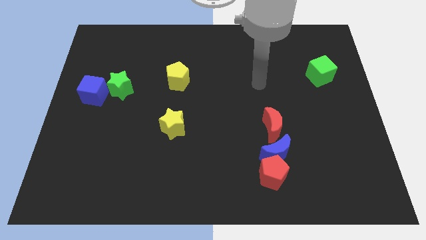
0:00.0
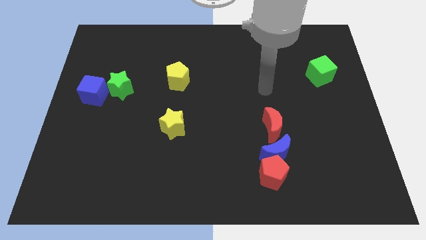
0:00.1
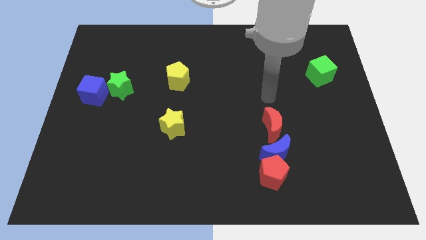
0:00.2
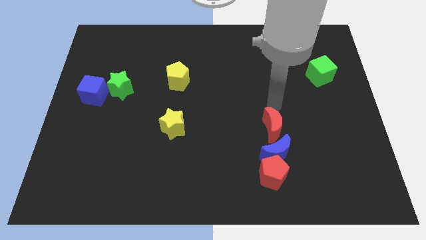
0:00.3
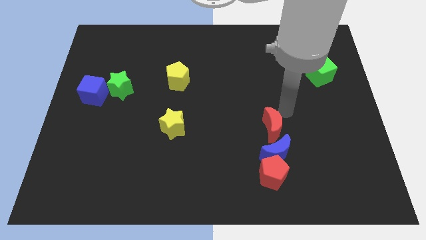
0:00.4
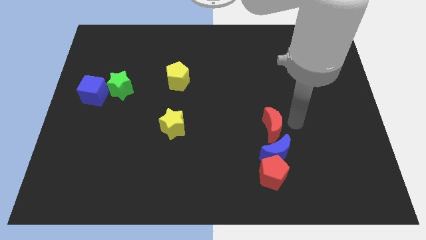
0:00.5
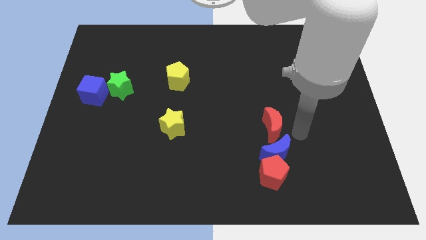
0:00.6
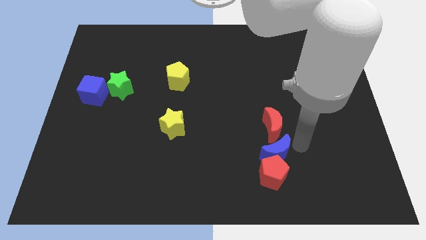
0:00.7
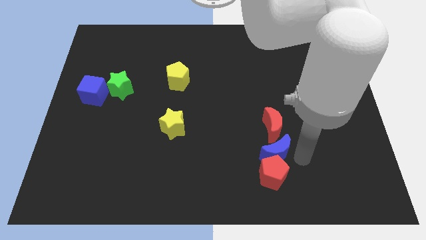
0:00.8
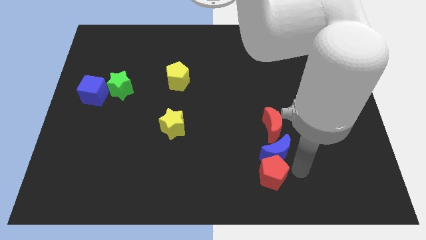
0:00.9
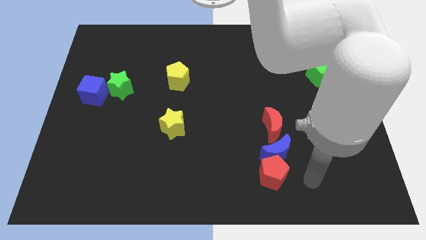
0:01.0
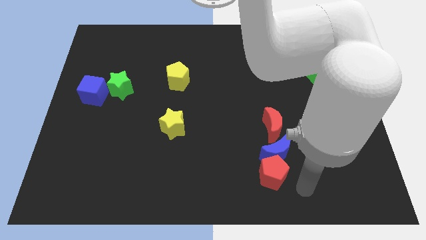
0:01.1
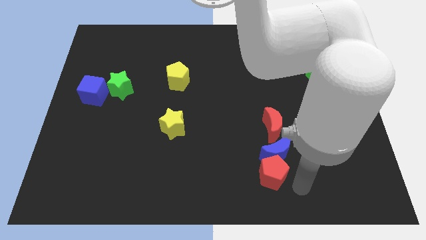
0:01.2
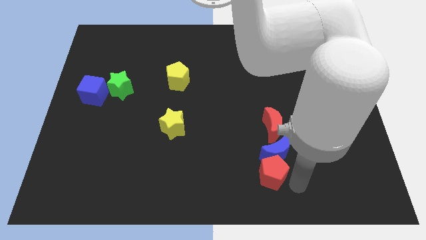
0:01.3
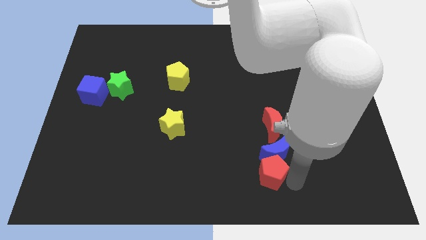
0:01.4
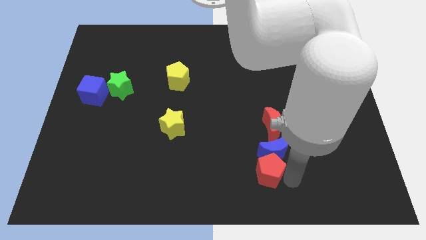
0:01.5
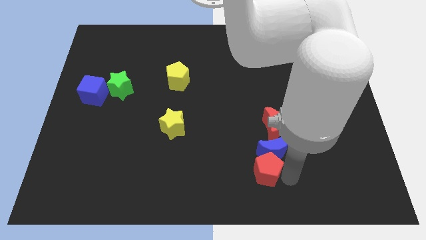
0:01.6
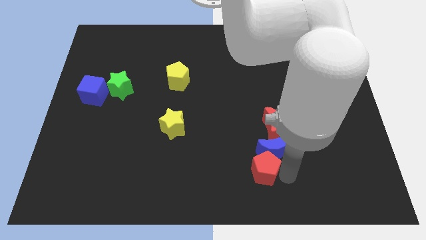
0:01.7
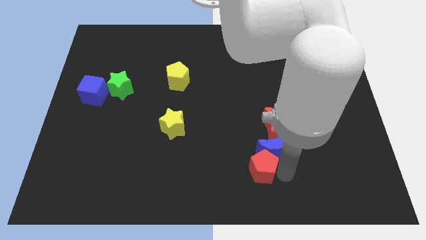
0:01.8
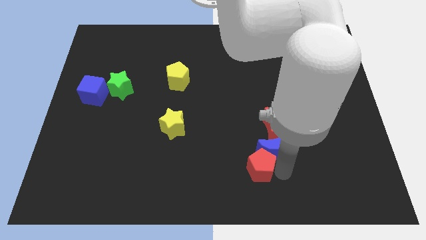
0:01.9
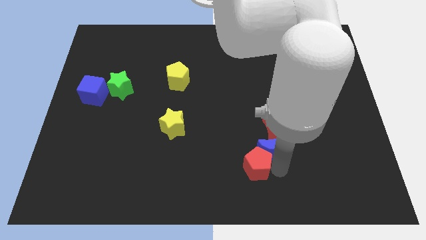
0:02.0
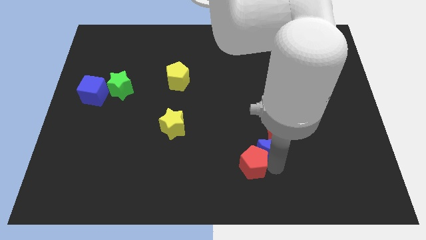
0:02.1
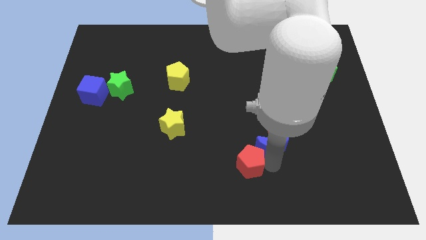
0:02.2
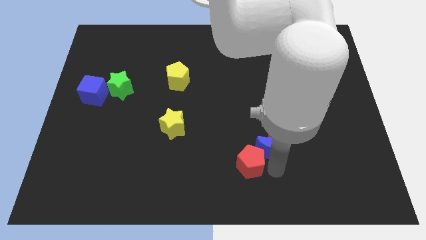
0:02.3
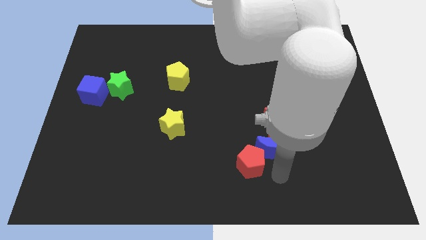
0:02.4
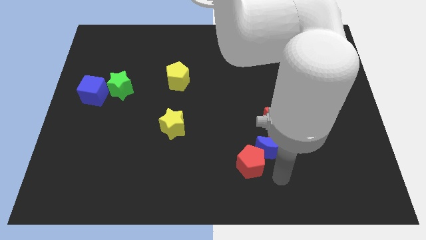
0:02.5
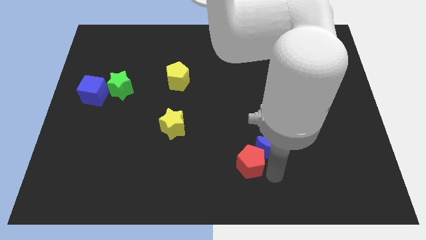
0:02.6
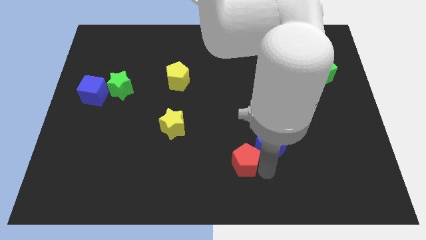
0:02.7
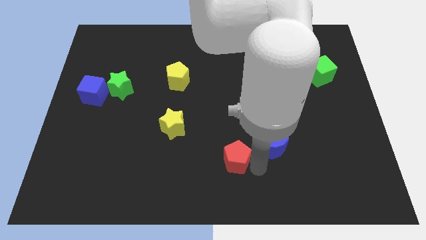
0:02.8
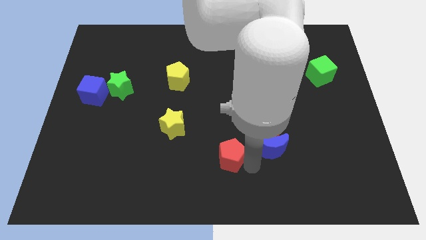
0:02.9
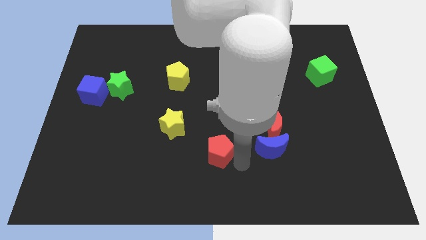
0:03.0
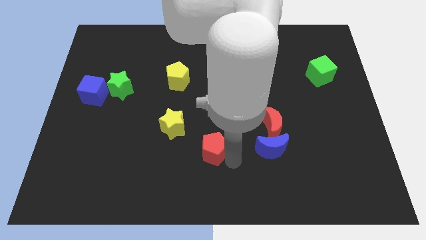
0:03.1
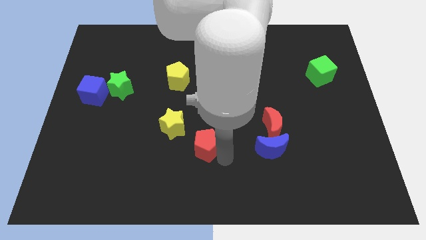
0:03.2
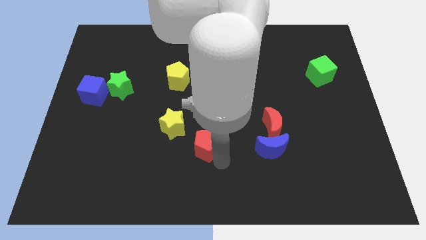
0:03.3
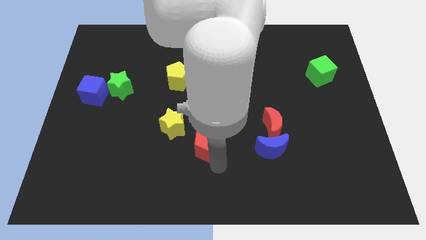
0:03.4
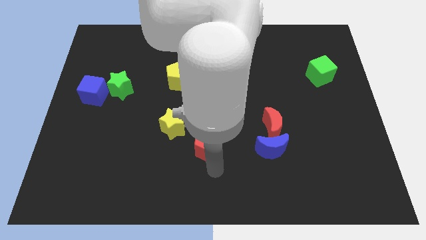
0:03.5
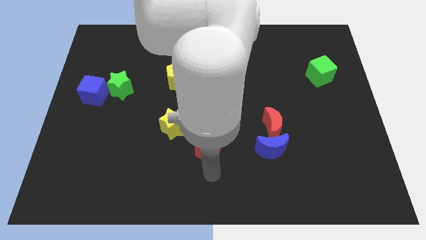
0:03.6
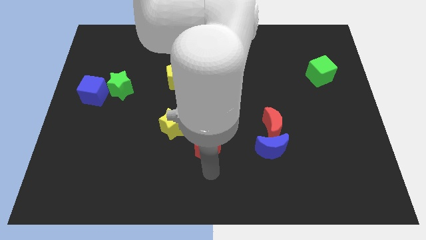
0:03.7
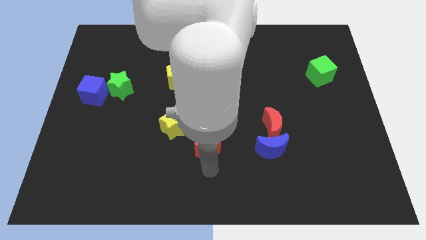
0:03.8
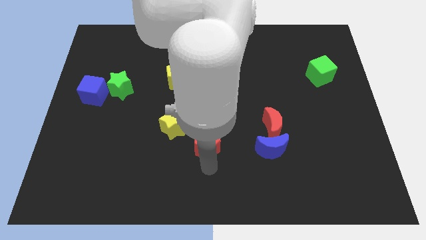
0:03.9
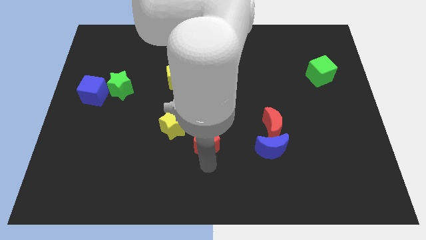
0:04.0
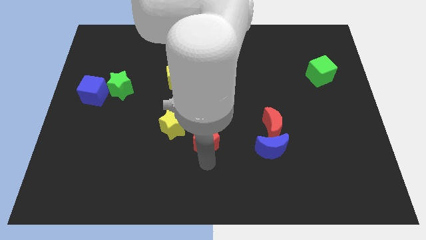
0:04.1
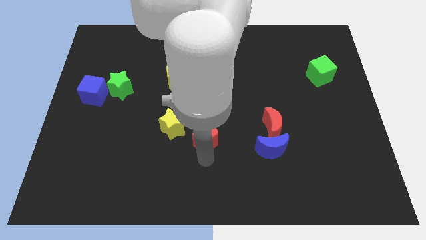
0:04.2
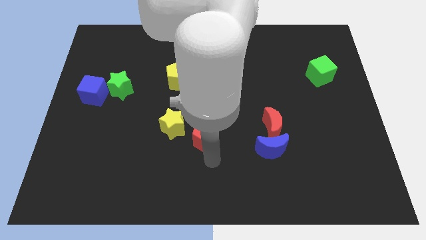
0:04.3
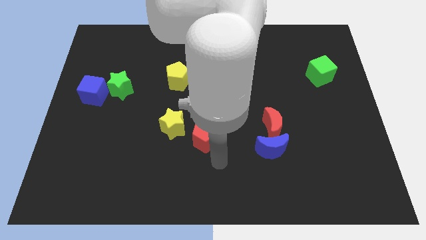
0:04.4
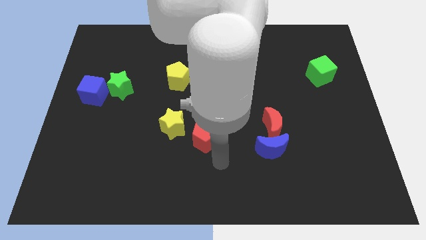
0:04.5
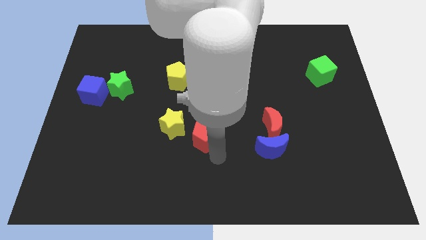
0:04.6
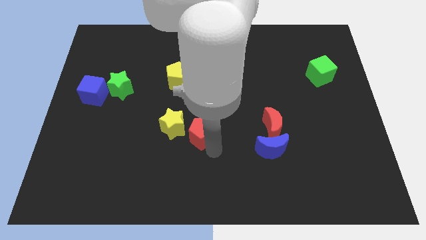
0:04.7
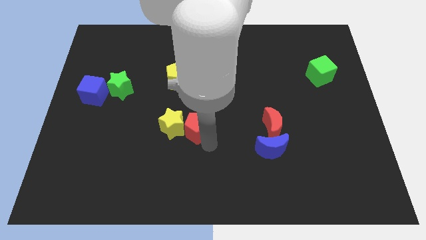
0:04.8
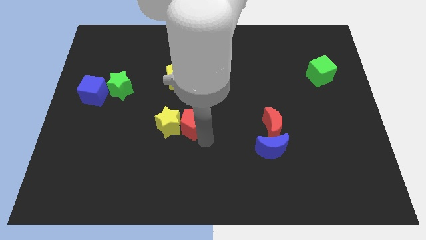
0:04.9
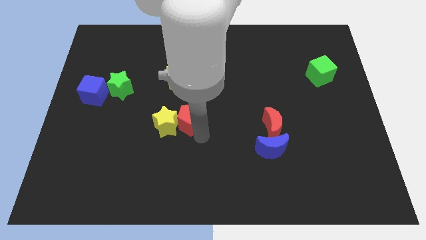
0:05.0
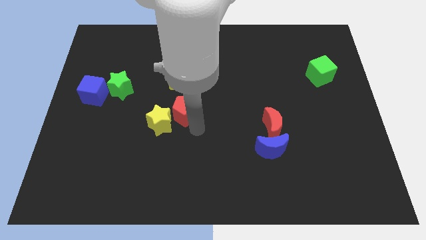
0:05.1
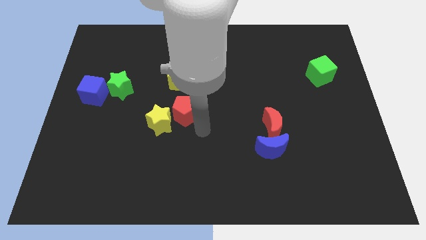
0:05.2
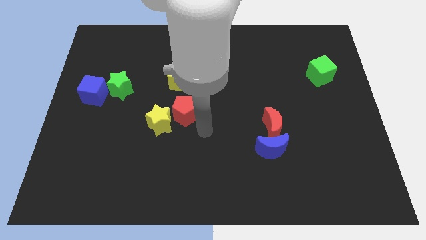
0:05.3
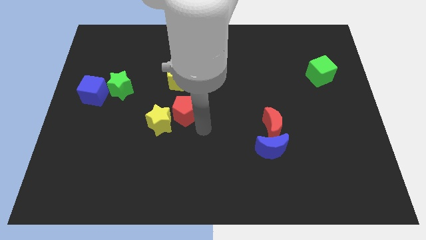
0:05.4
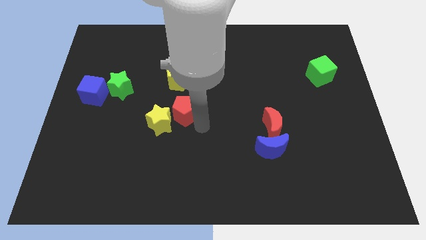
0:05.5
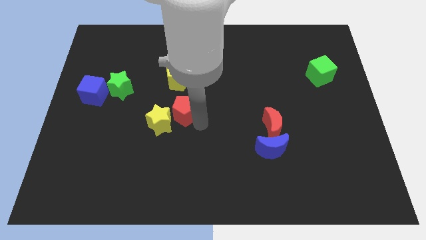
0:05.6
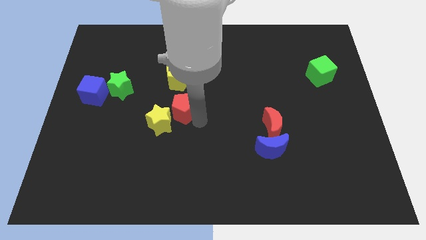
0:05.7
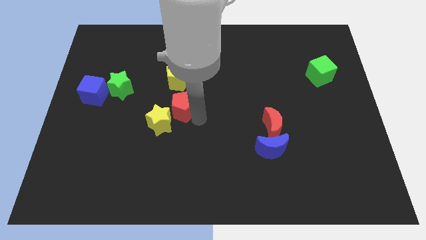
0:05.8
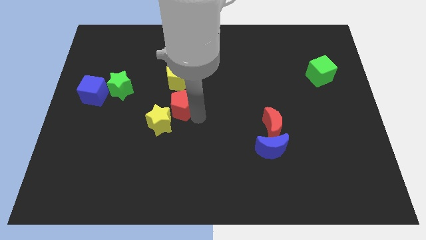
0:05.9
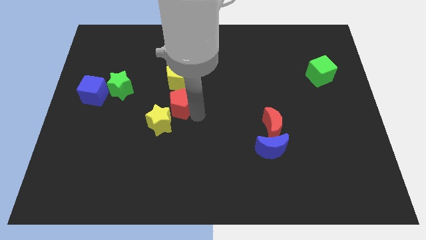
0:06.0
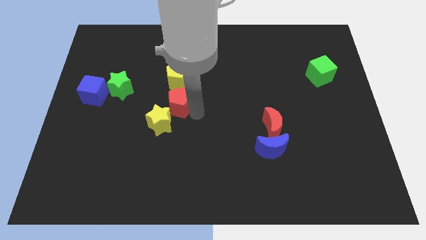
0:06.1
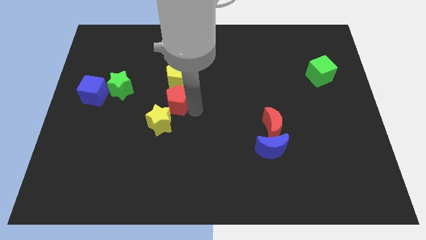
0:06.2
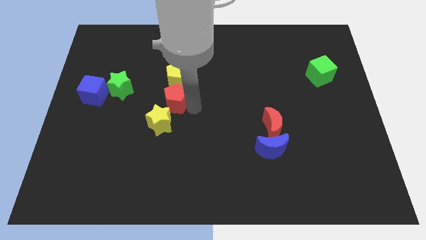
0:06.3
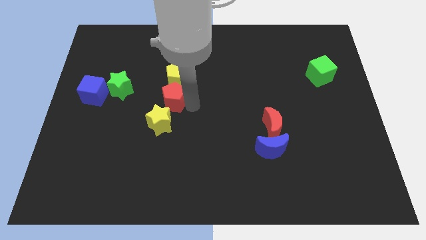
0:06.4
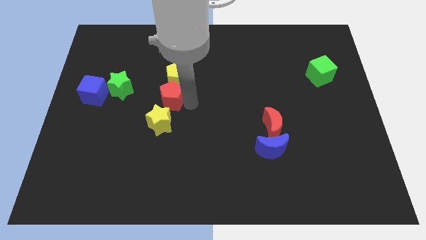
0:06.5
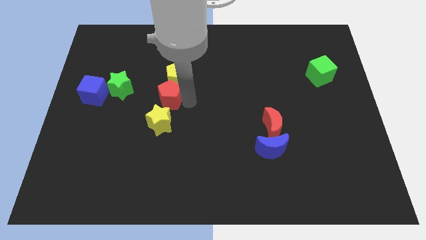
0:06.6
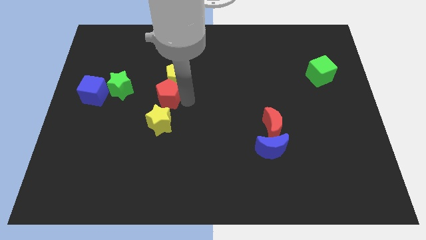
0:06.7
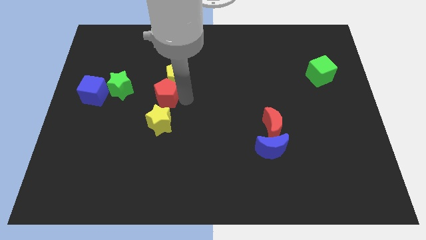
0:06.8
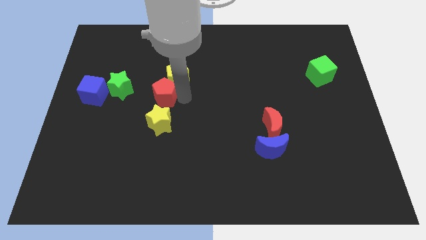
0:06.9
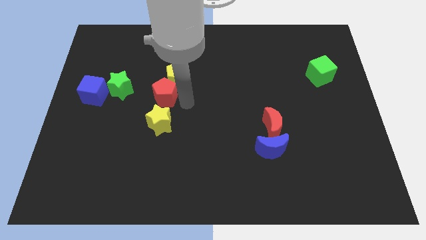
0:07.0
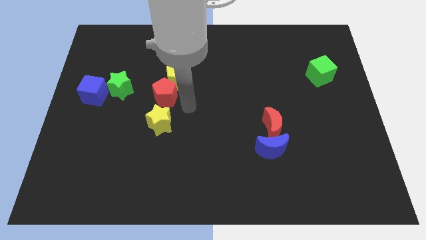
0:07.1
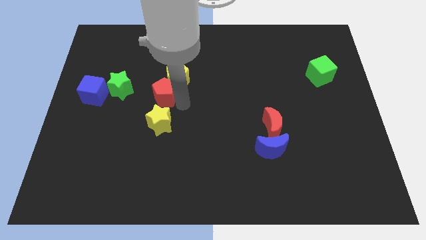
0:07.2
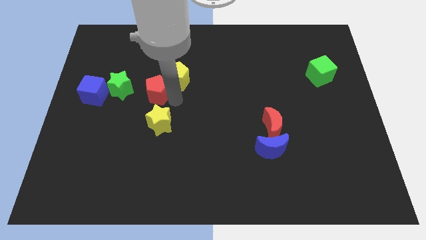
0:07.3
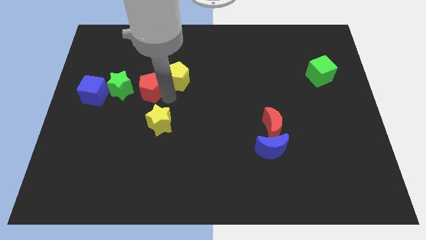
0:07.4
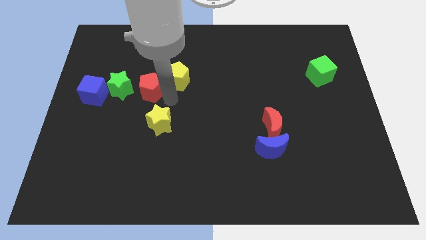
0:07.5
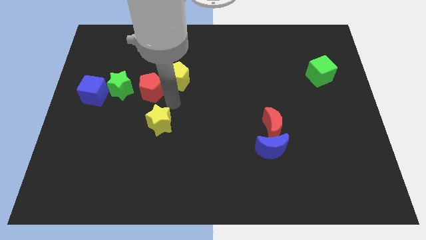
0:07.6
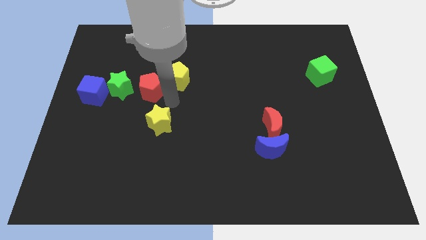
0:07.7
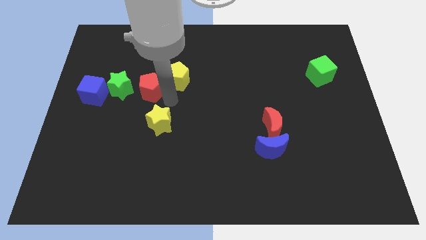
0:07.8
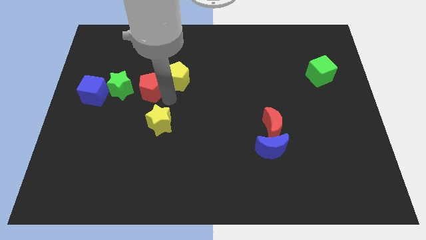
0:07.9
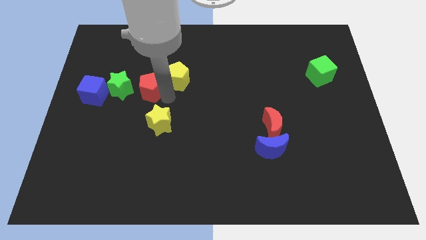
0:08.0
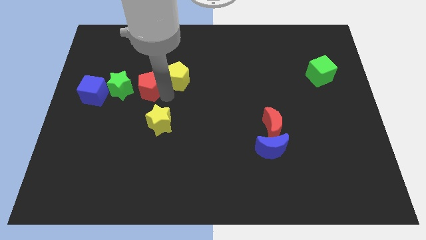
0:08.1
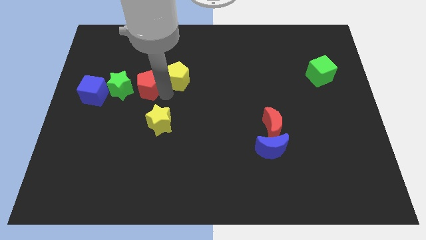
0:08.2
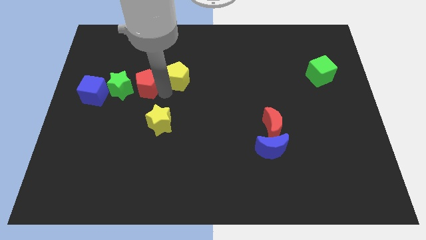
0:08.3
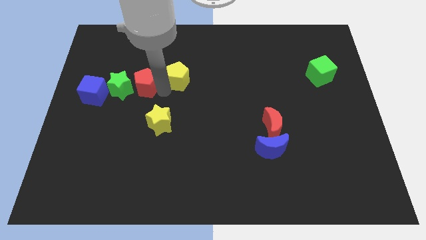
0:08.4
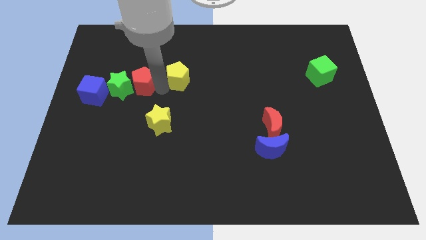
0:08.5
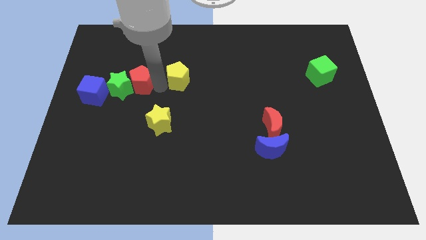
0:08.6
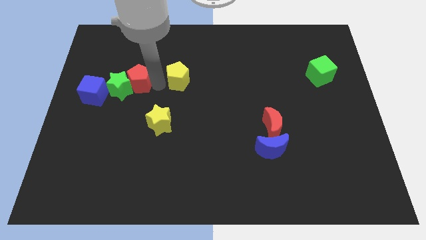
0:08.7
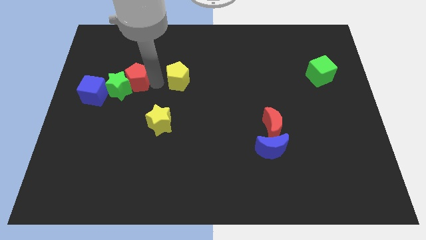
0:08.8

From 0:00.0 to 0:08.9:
push the red pentagon diagonally up and to the right of the blue cube
